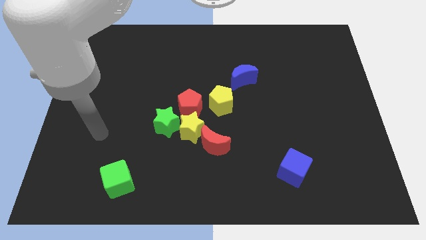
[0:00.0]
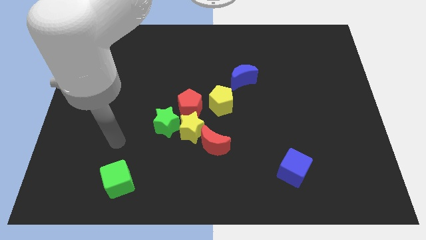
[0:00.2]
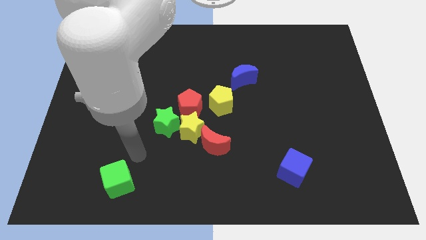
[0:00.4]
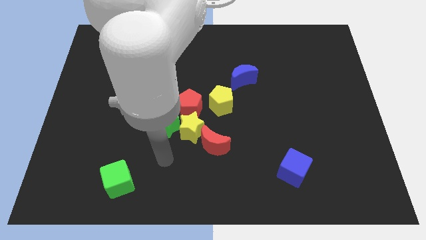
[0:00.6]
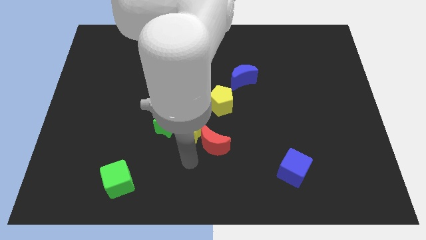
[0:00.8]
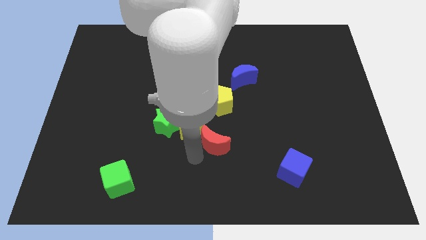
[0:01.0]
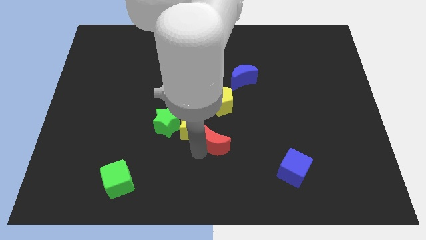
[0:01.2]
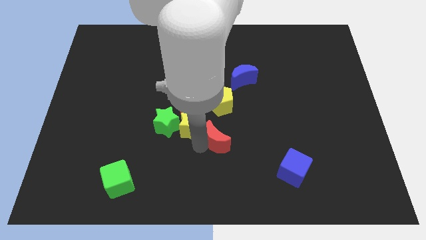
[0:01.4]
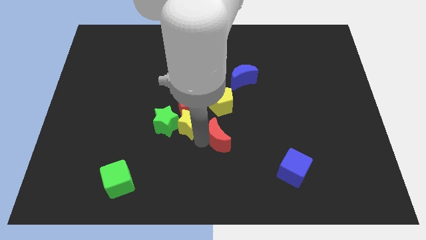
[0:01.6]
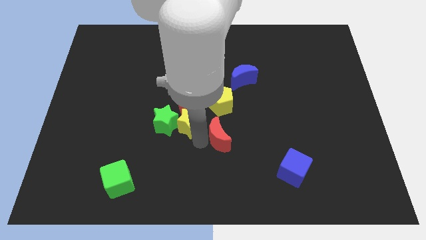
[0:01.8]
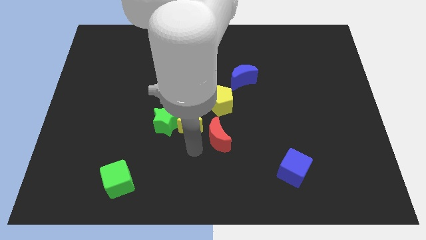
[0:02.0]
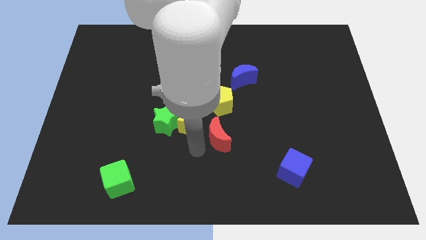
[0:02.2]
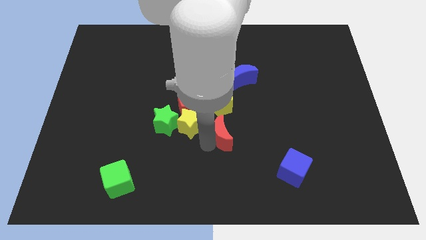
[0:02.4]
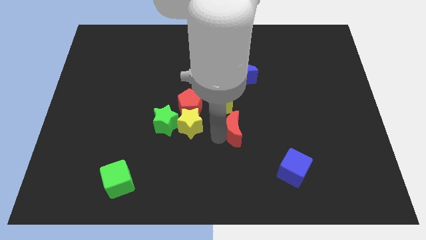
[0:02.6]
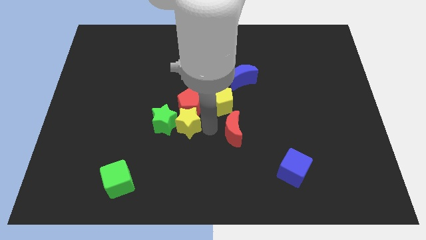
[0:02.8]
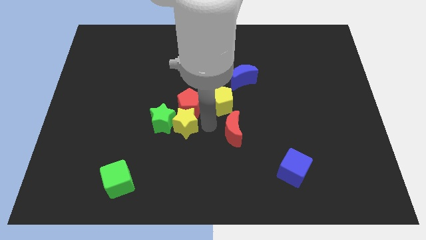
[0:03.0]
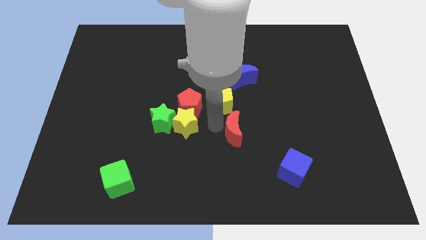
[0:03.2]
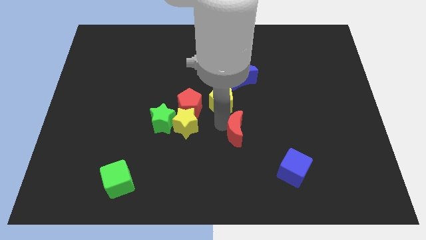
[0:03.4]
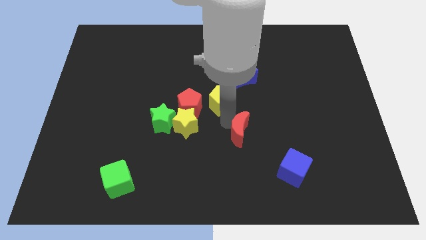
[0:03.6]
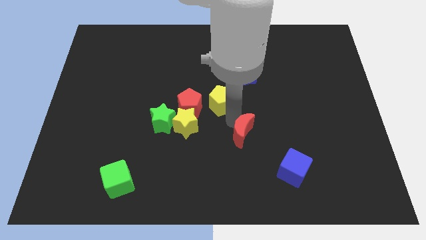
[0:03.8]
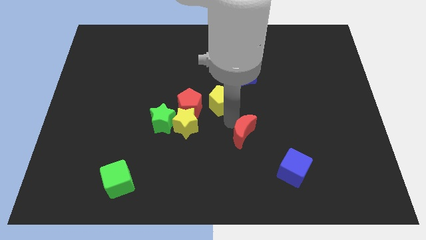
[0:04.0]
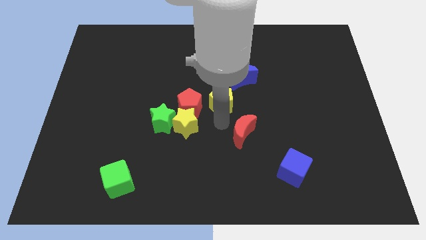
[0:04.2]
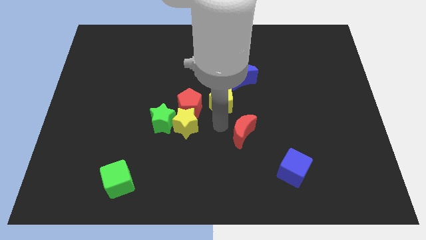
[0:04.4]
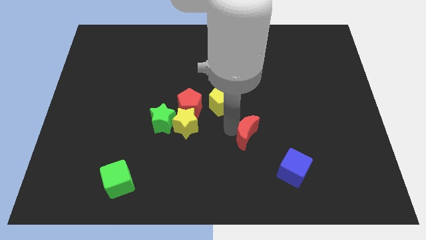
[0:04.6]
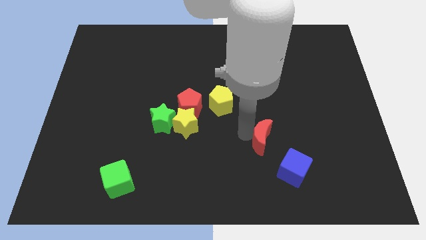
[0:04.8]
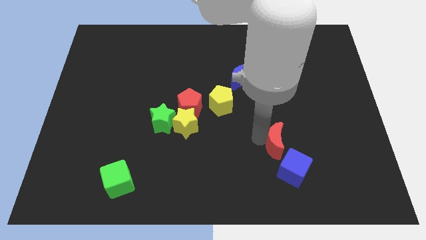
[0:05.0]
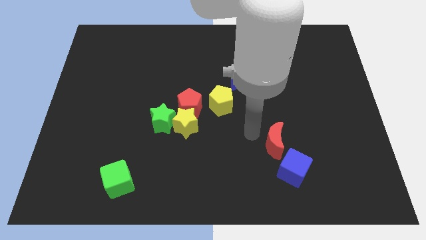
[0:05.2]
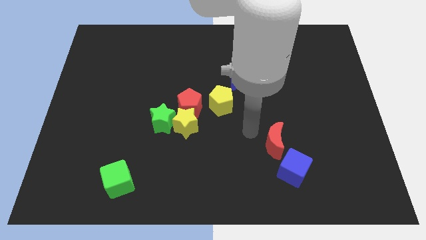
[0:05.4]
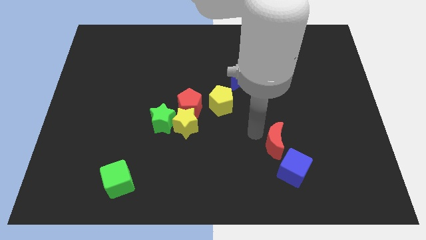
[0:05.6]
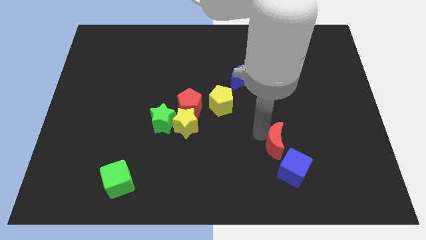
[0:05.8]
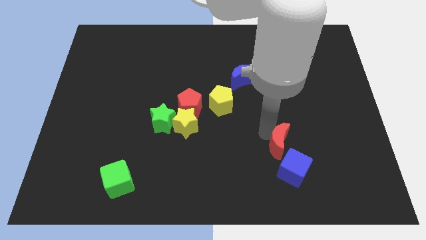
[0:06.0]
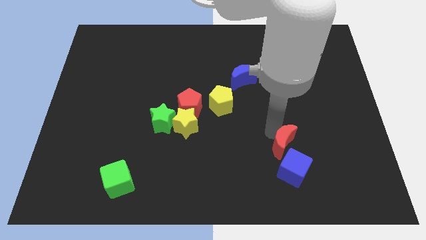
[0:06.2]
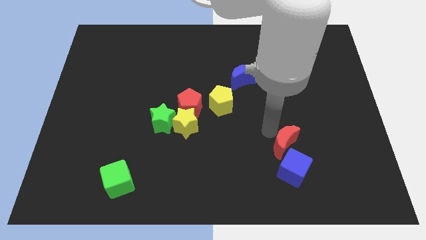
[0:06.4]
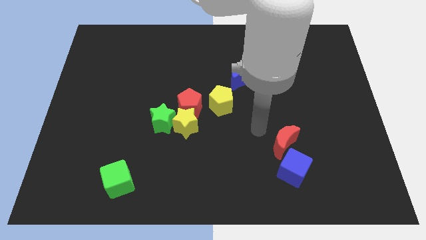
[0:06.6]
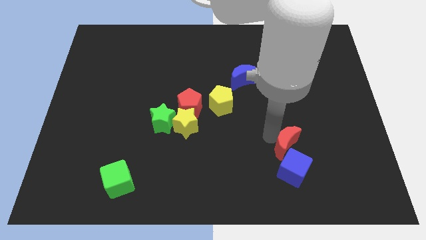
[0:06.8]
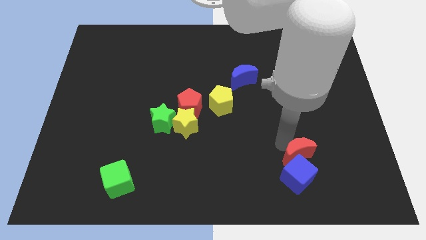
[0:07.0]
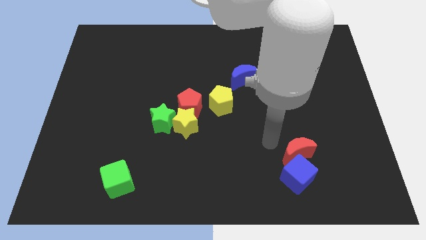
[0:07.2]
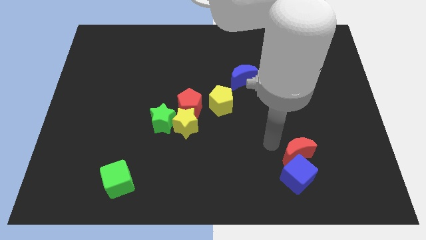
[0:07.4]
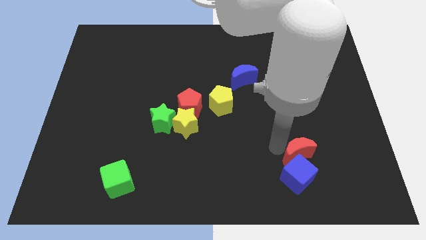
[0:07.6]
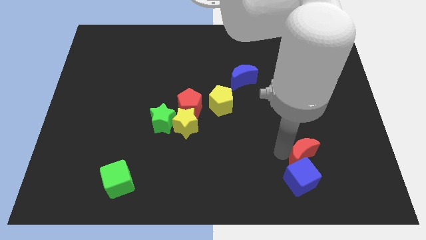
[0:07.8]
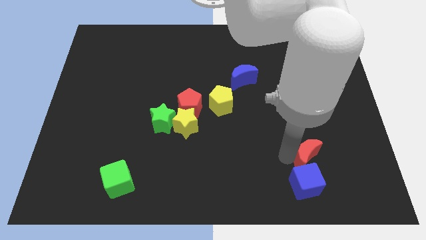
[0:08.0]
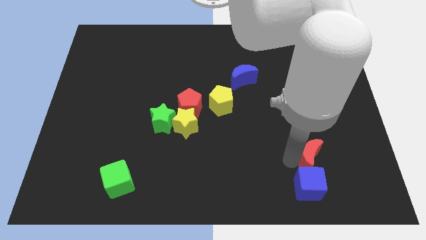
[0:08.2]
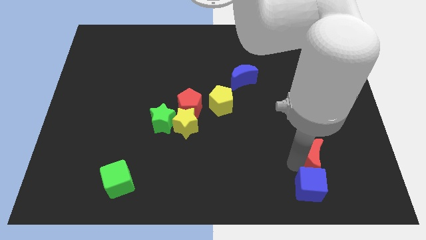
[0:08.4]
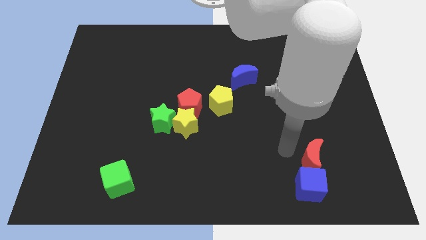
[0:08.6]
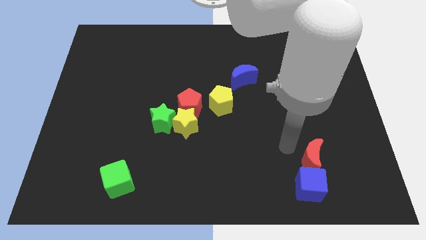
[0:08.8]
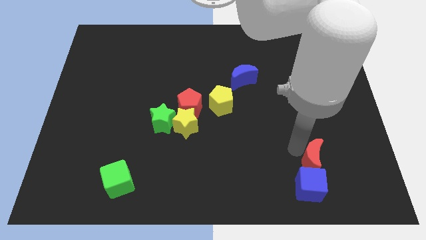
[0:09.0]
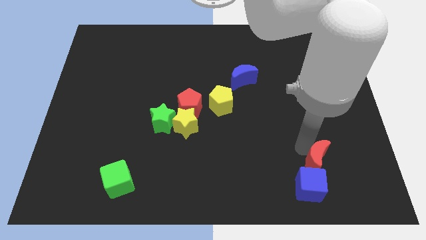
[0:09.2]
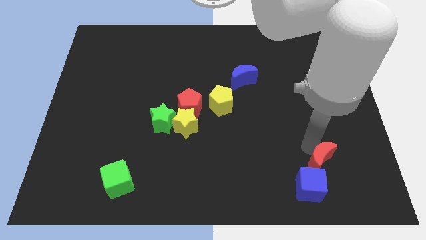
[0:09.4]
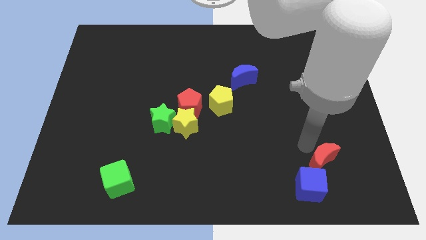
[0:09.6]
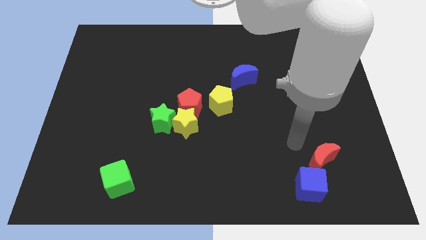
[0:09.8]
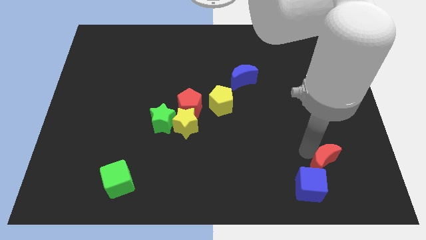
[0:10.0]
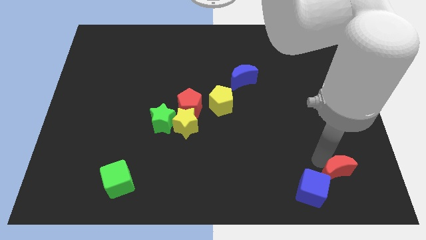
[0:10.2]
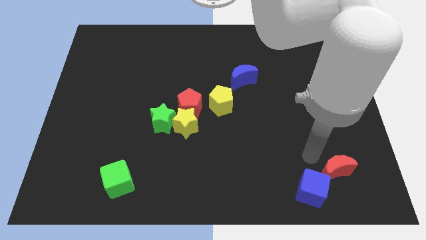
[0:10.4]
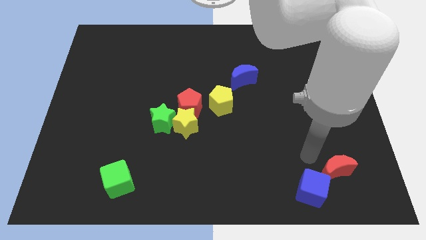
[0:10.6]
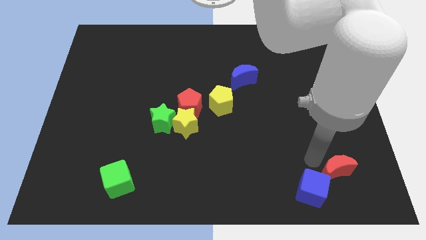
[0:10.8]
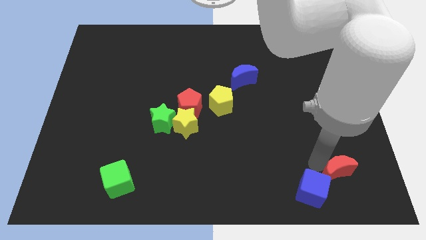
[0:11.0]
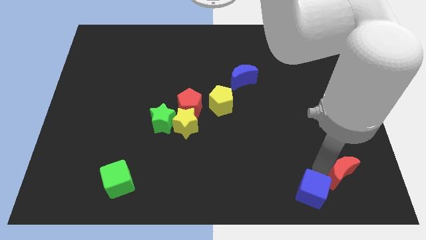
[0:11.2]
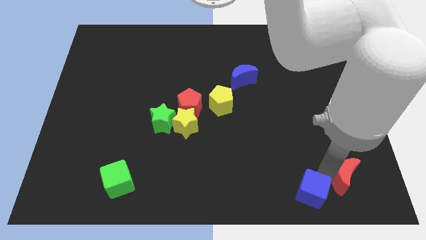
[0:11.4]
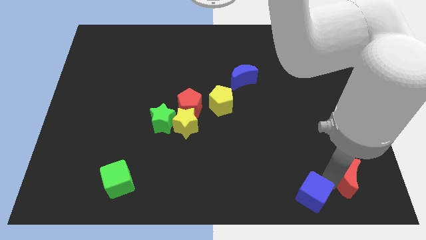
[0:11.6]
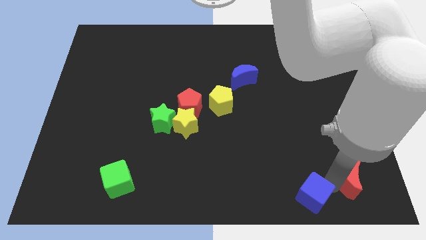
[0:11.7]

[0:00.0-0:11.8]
put the red moon to the bottom right corner

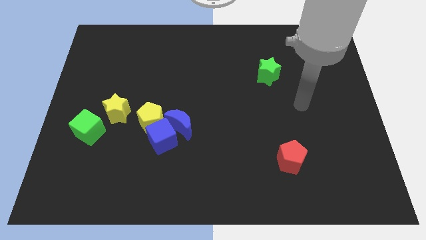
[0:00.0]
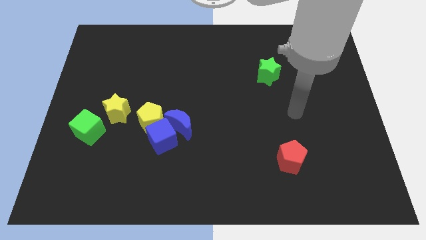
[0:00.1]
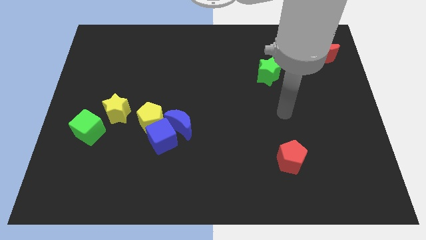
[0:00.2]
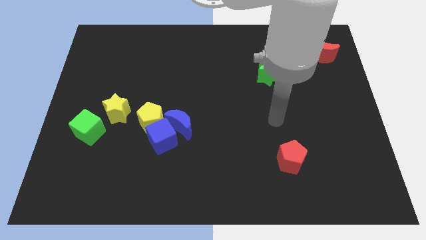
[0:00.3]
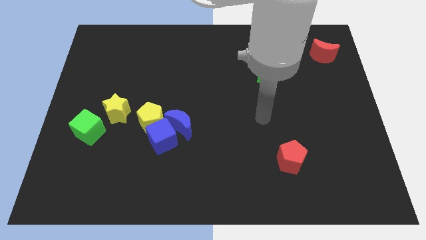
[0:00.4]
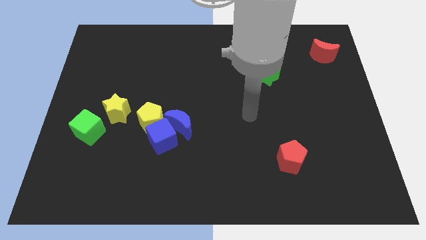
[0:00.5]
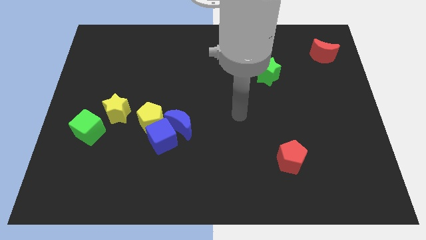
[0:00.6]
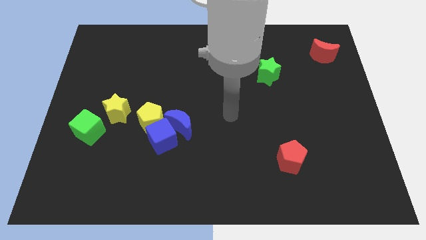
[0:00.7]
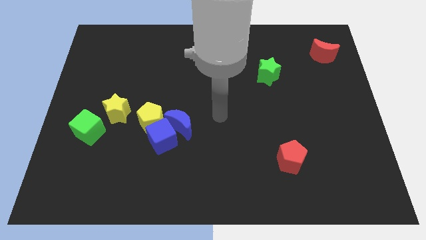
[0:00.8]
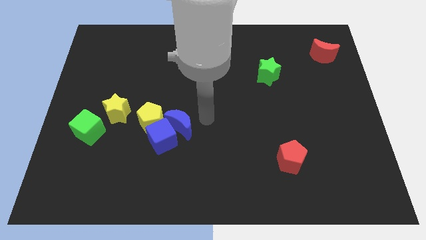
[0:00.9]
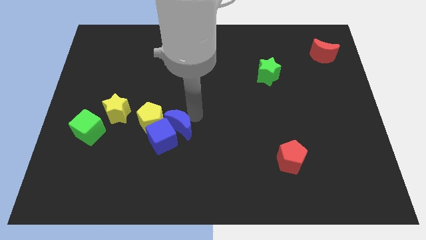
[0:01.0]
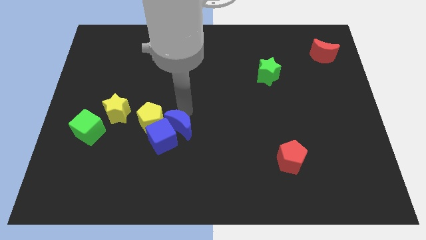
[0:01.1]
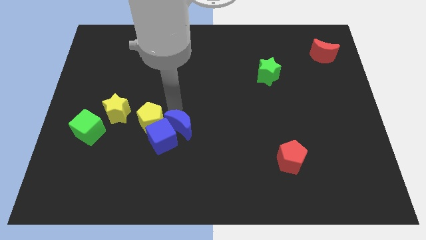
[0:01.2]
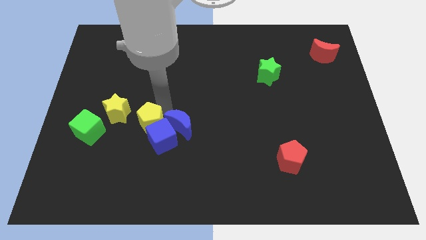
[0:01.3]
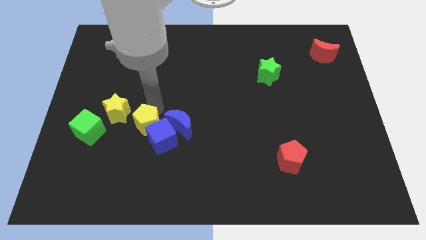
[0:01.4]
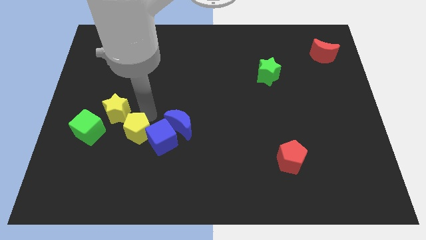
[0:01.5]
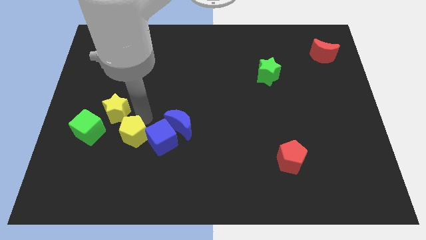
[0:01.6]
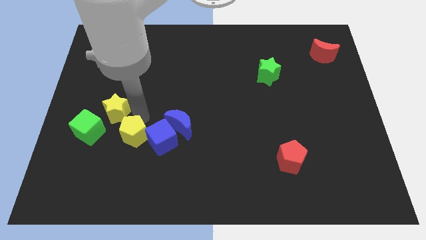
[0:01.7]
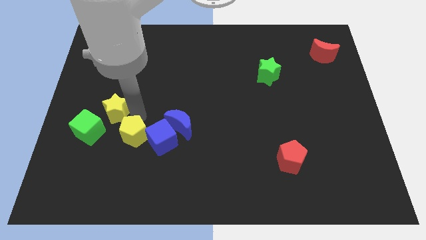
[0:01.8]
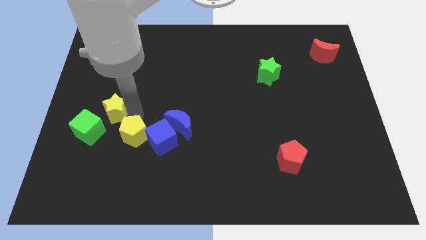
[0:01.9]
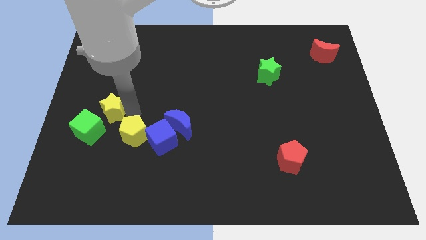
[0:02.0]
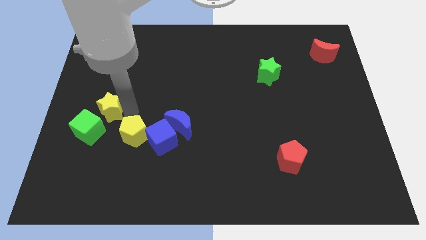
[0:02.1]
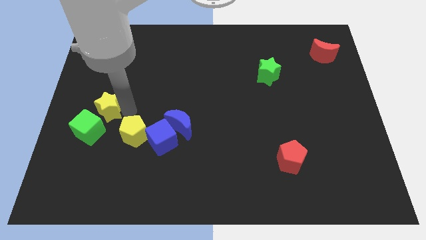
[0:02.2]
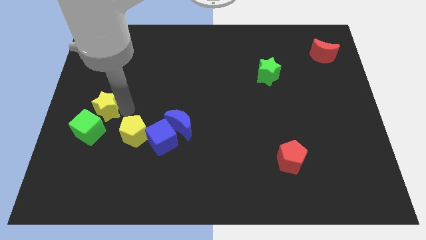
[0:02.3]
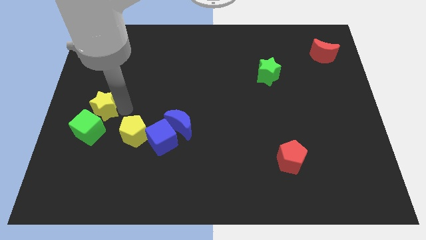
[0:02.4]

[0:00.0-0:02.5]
slide the yellow star to the center left
